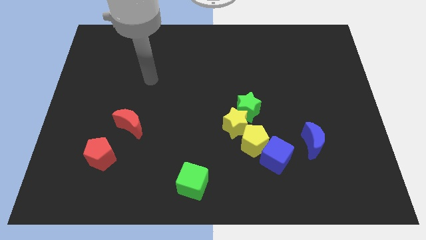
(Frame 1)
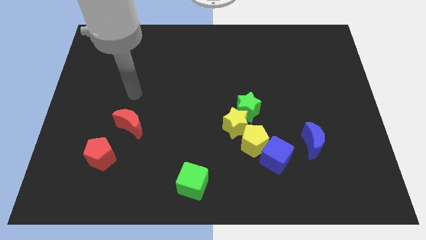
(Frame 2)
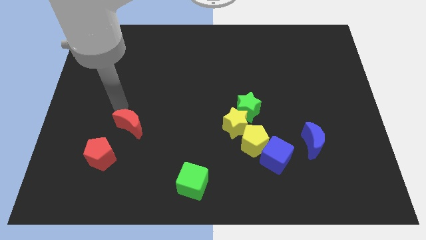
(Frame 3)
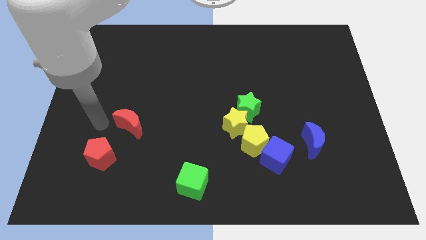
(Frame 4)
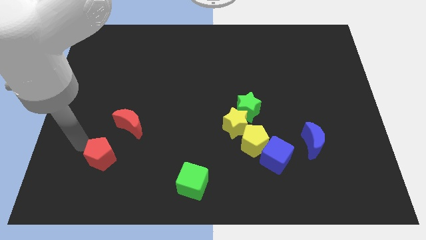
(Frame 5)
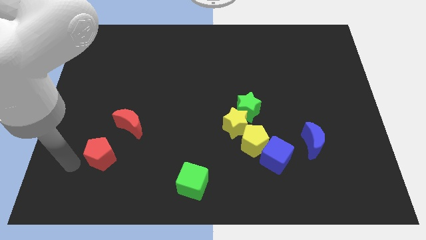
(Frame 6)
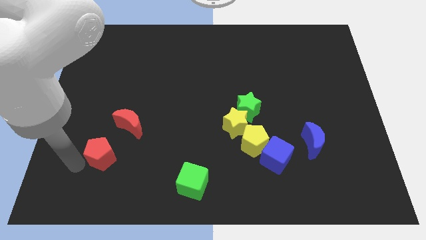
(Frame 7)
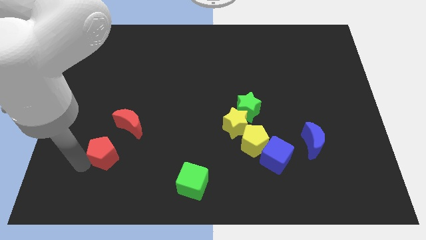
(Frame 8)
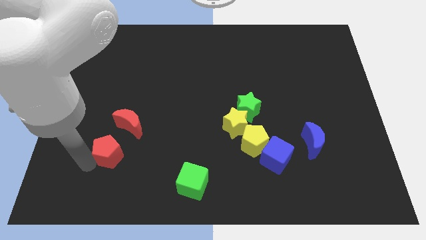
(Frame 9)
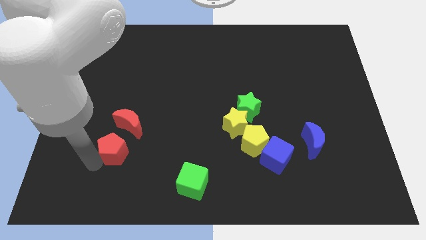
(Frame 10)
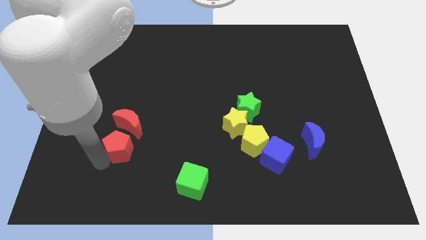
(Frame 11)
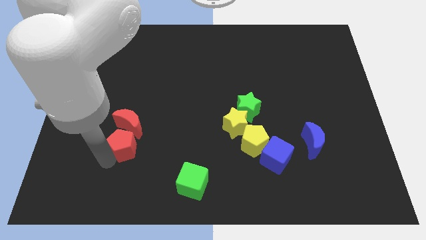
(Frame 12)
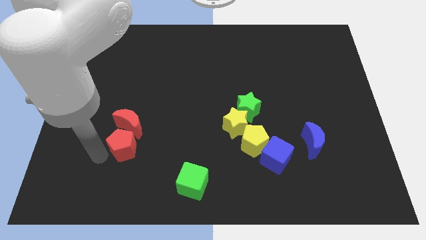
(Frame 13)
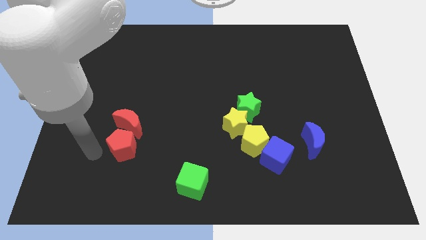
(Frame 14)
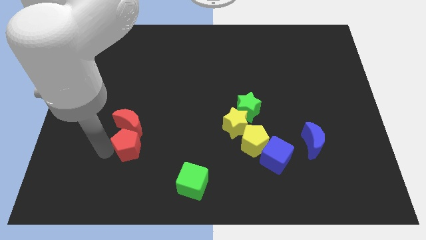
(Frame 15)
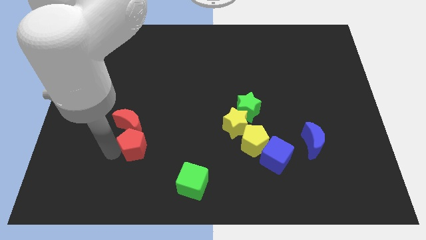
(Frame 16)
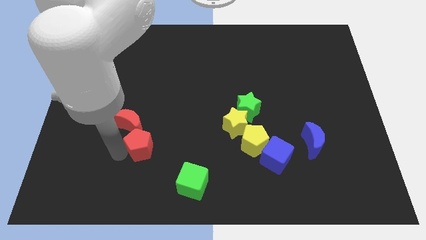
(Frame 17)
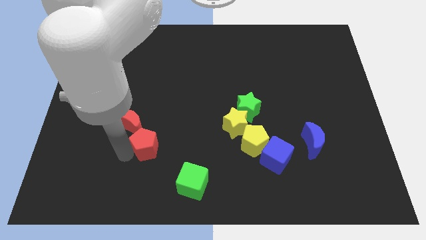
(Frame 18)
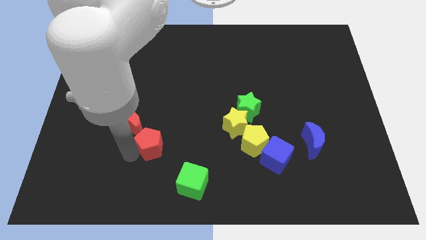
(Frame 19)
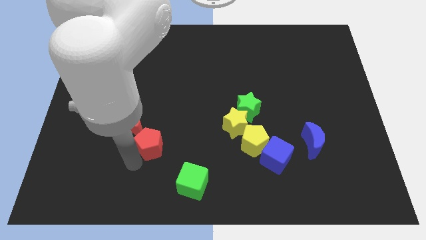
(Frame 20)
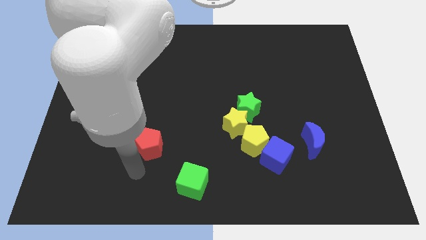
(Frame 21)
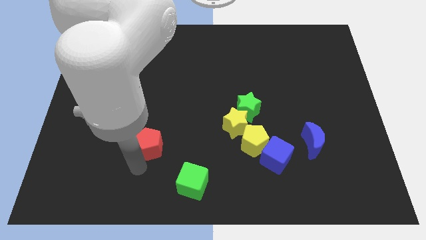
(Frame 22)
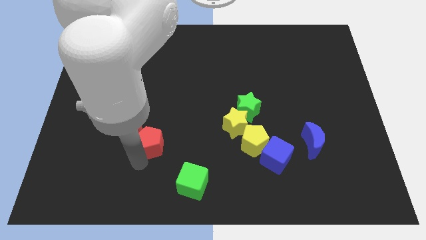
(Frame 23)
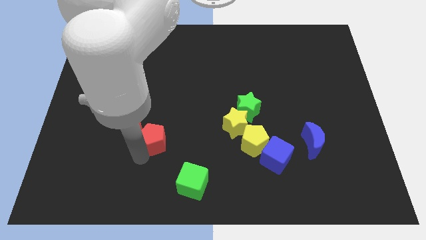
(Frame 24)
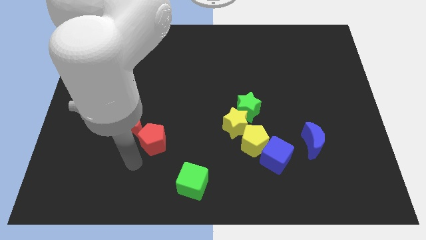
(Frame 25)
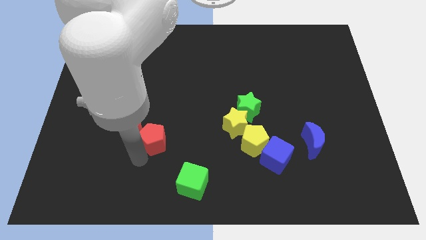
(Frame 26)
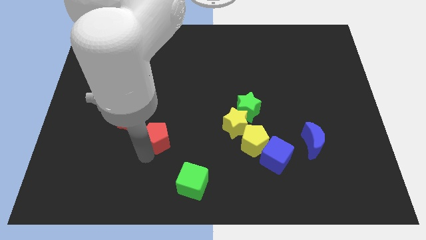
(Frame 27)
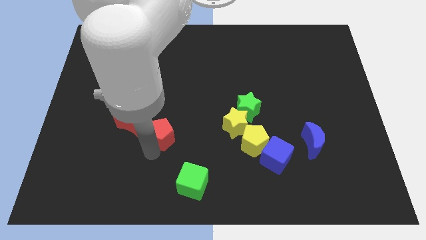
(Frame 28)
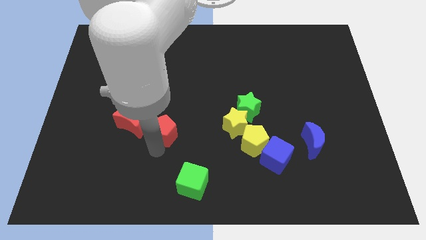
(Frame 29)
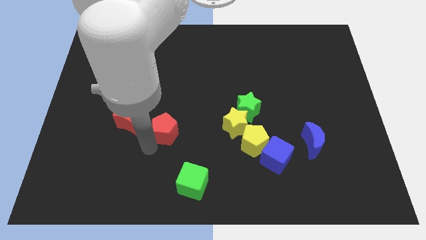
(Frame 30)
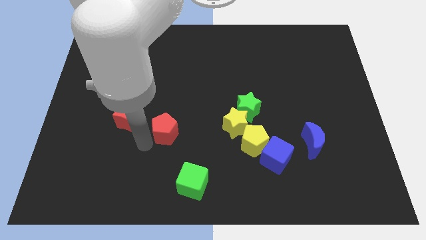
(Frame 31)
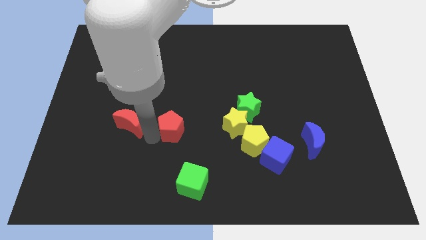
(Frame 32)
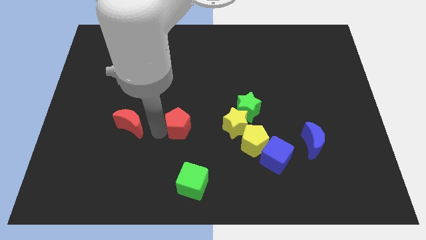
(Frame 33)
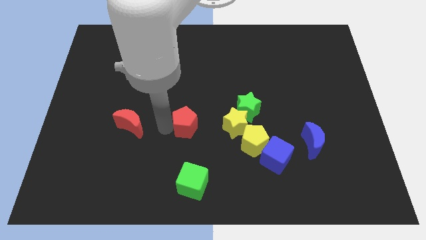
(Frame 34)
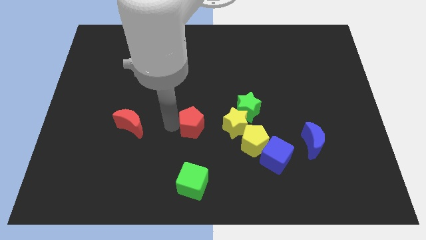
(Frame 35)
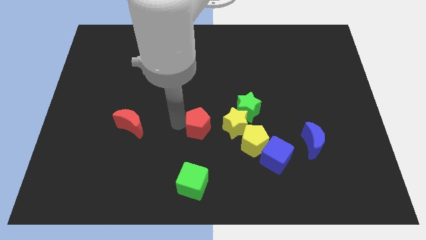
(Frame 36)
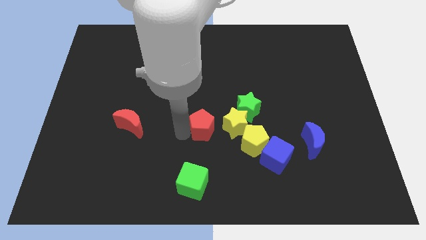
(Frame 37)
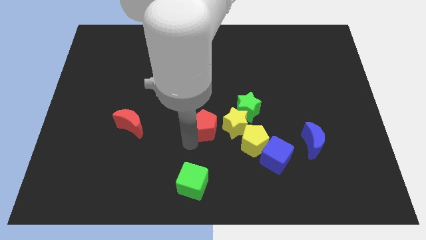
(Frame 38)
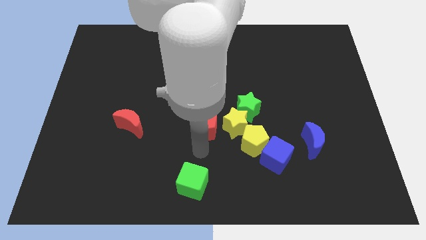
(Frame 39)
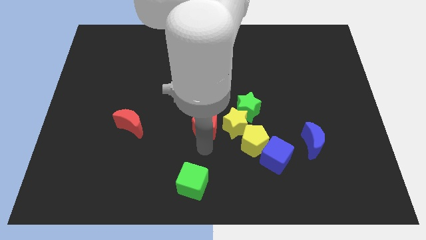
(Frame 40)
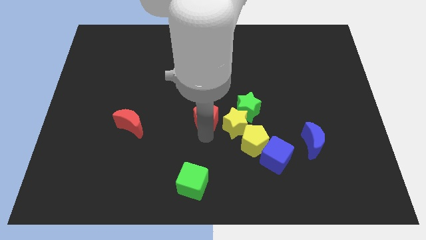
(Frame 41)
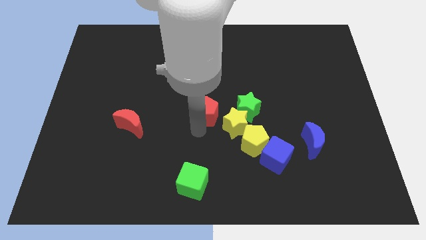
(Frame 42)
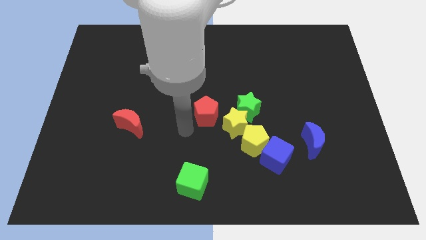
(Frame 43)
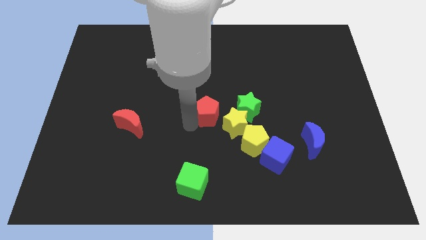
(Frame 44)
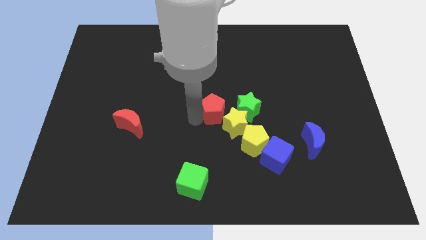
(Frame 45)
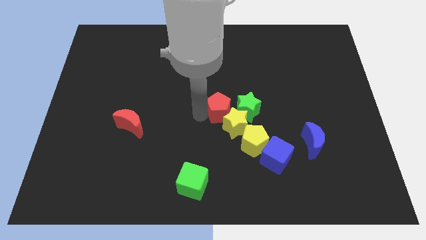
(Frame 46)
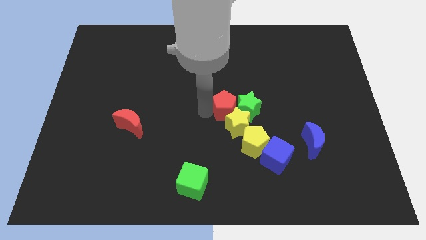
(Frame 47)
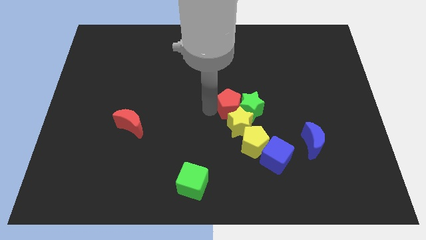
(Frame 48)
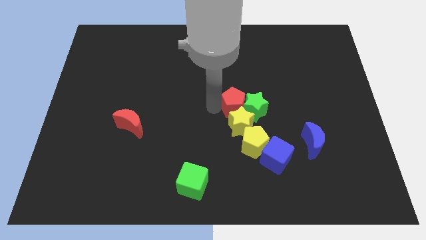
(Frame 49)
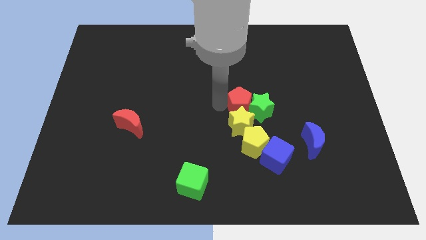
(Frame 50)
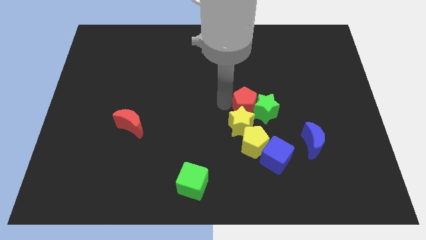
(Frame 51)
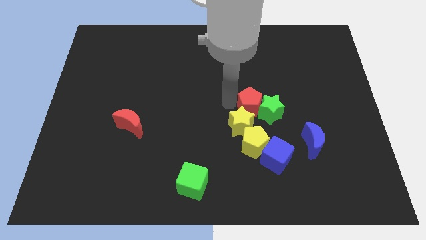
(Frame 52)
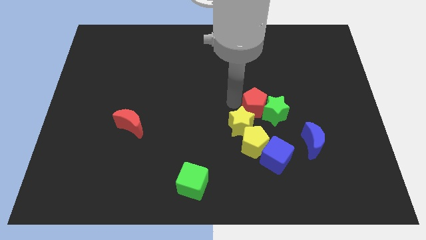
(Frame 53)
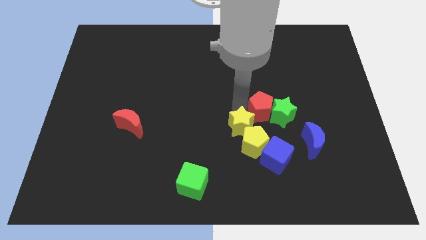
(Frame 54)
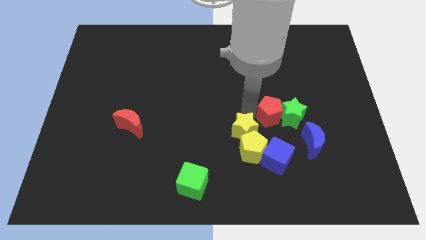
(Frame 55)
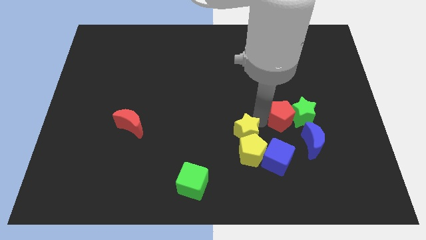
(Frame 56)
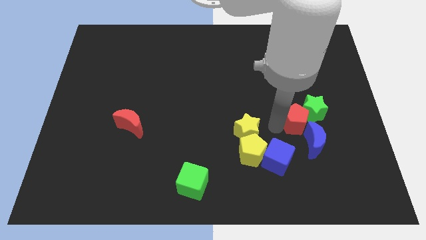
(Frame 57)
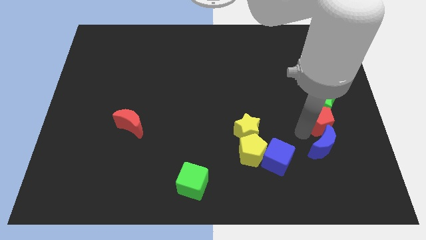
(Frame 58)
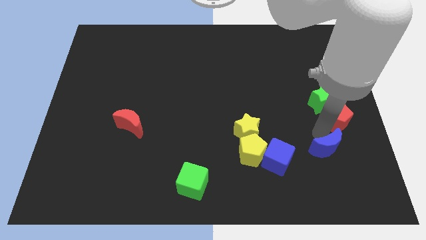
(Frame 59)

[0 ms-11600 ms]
move the red pentagon to the center right

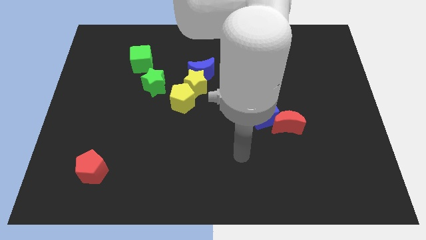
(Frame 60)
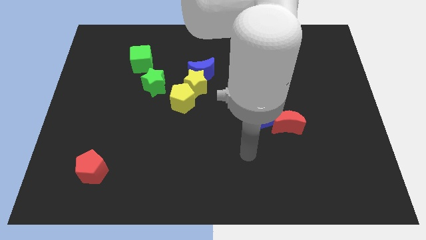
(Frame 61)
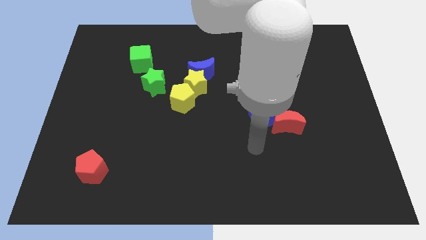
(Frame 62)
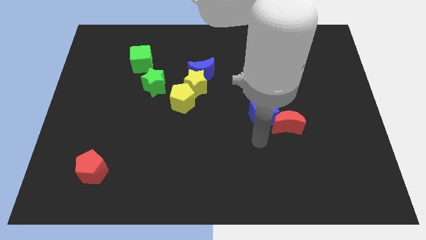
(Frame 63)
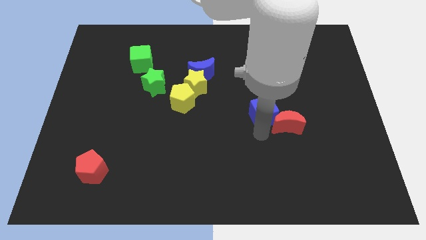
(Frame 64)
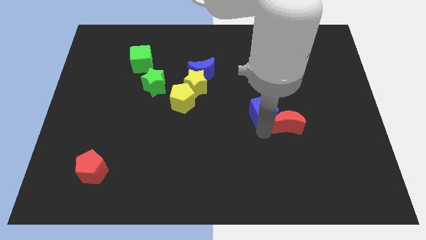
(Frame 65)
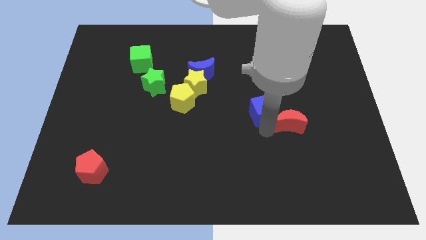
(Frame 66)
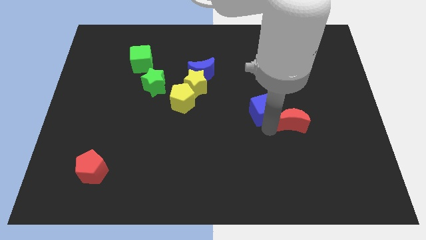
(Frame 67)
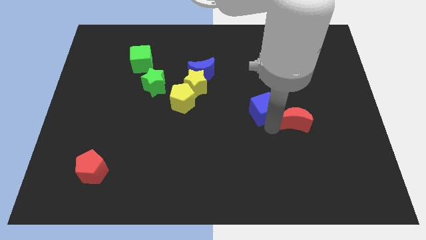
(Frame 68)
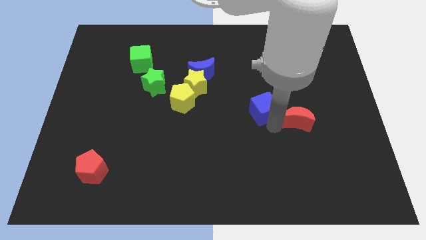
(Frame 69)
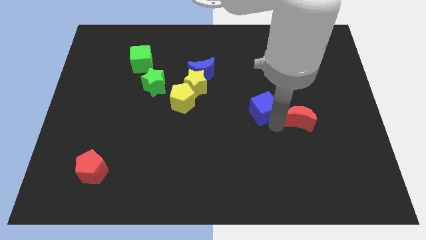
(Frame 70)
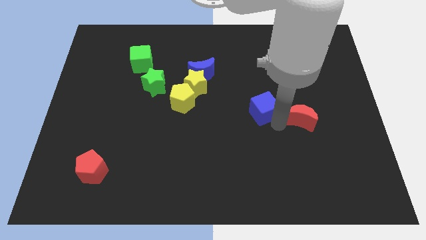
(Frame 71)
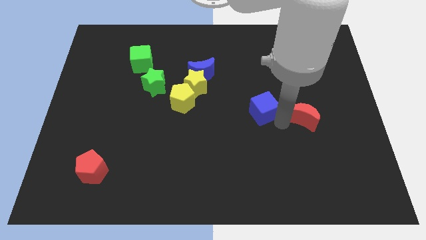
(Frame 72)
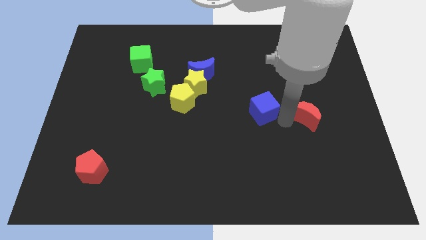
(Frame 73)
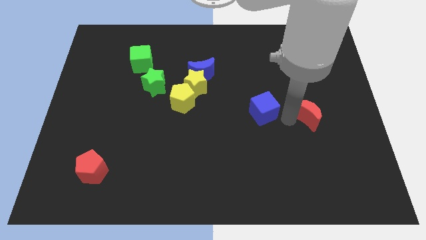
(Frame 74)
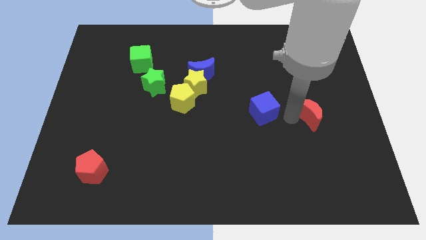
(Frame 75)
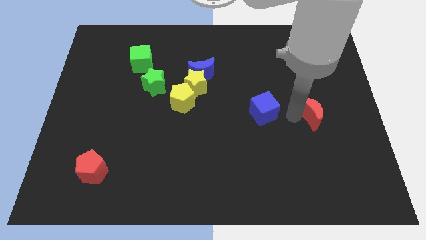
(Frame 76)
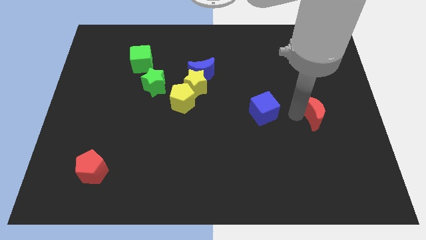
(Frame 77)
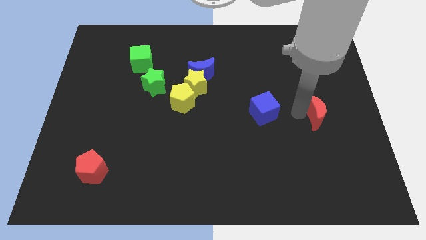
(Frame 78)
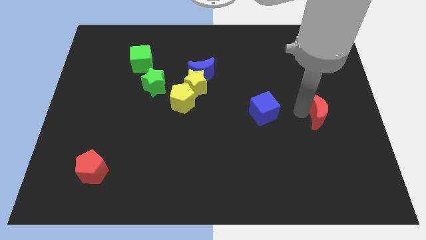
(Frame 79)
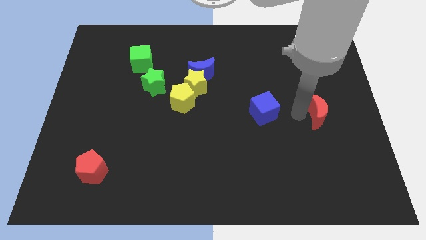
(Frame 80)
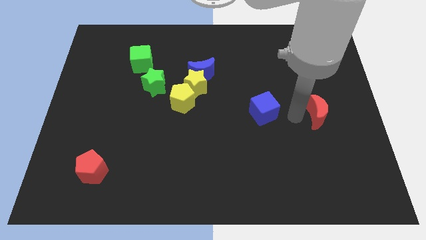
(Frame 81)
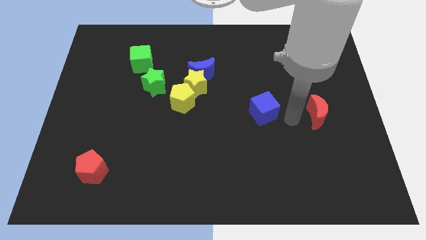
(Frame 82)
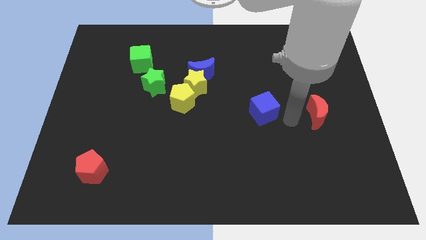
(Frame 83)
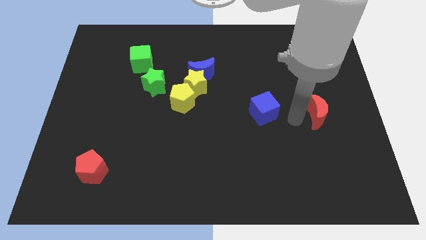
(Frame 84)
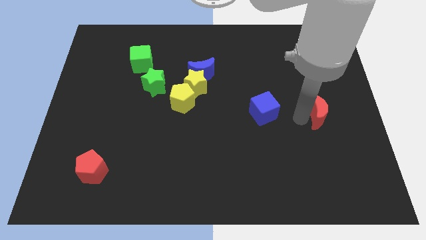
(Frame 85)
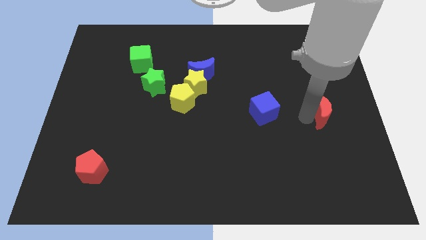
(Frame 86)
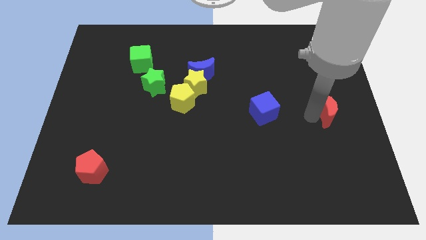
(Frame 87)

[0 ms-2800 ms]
put the red moon to the center right
